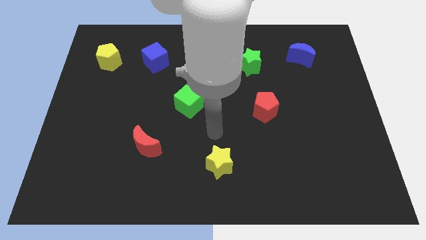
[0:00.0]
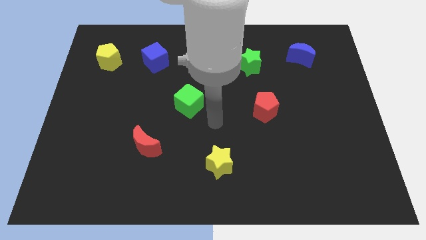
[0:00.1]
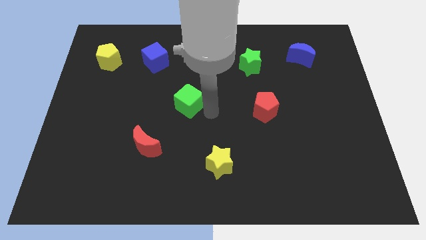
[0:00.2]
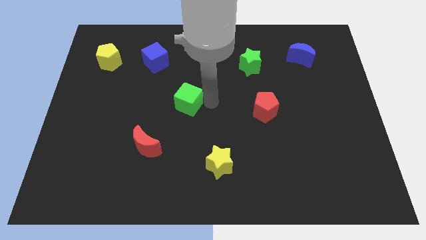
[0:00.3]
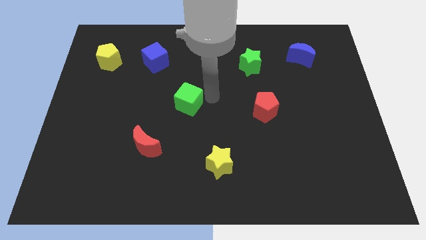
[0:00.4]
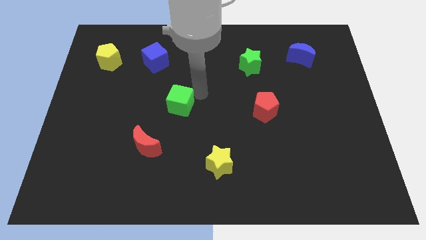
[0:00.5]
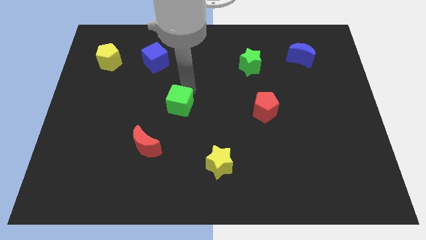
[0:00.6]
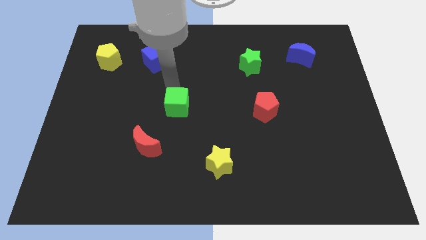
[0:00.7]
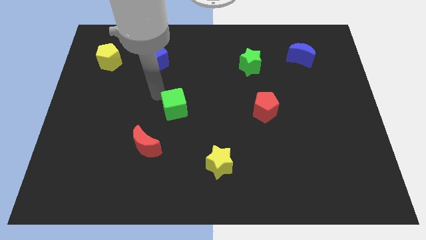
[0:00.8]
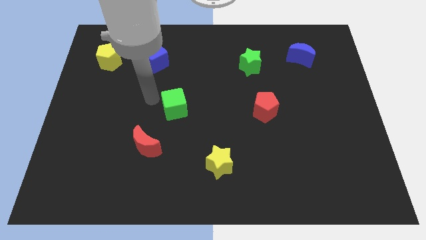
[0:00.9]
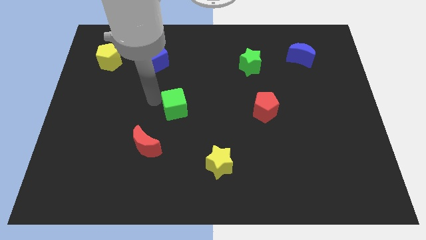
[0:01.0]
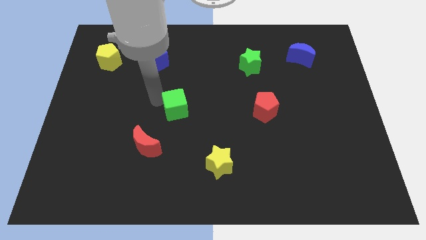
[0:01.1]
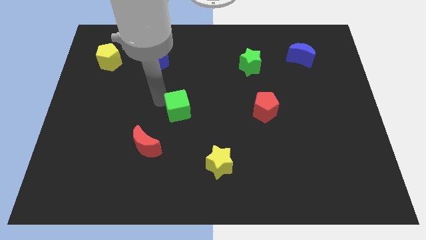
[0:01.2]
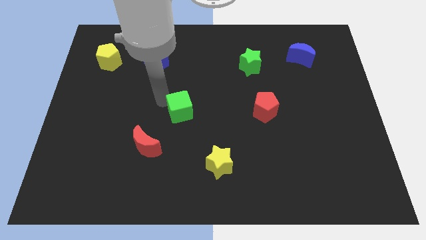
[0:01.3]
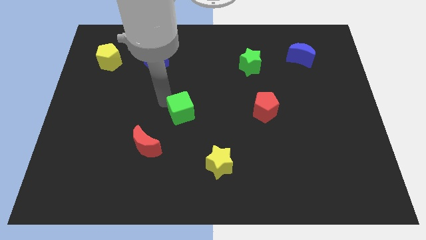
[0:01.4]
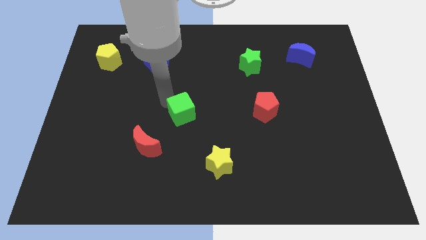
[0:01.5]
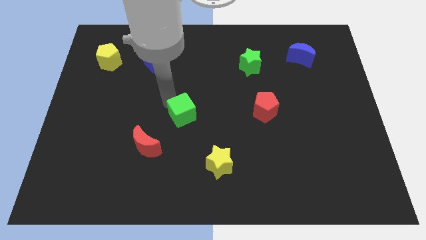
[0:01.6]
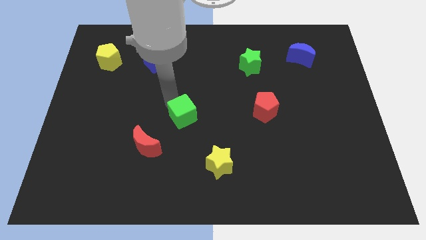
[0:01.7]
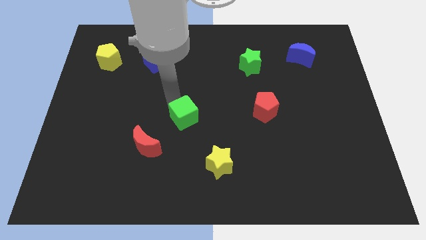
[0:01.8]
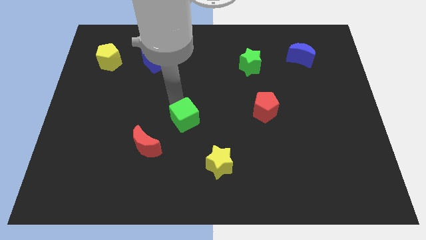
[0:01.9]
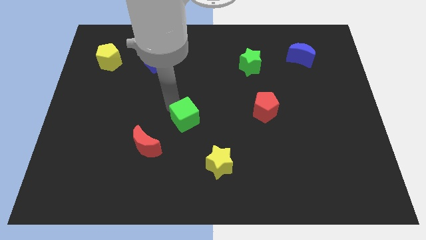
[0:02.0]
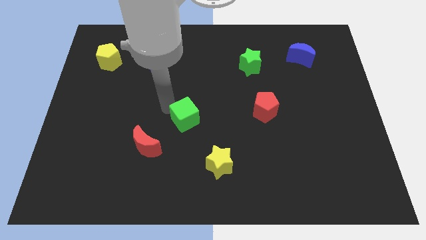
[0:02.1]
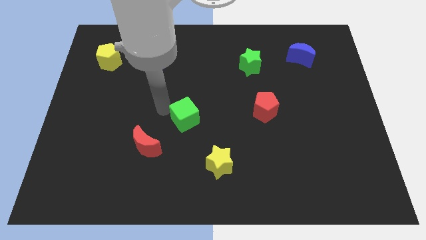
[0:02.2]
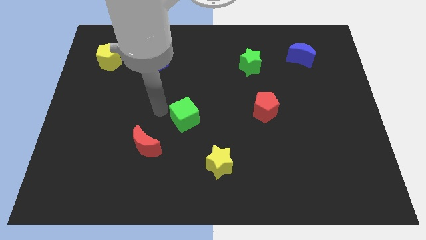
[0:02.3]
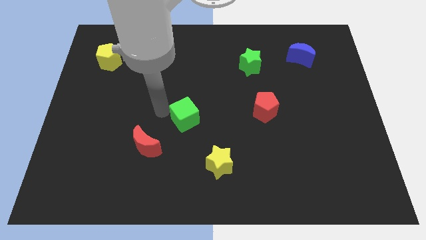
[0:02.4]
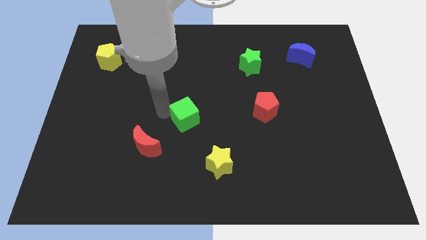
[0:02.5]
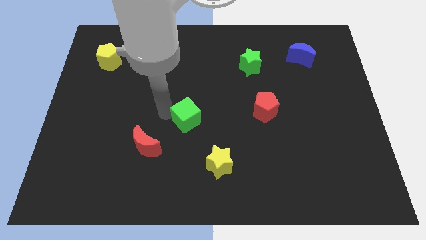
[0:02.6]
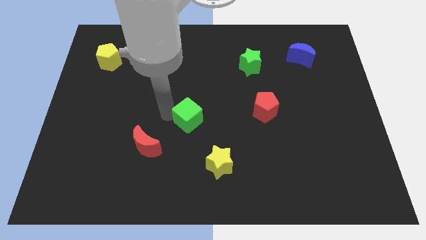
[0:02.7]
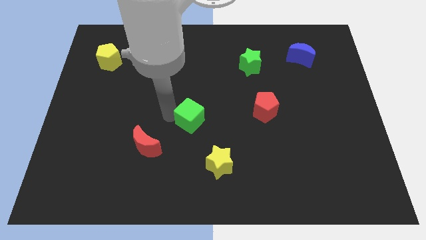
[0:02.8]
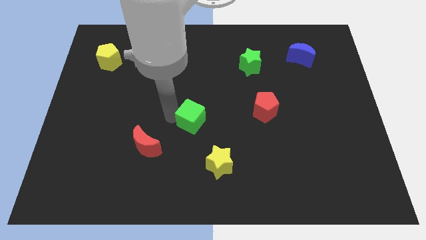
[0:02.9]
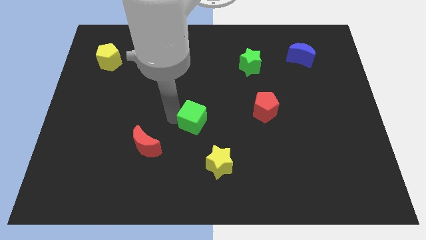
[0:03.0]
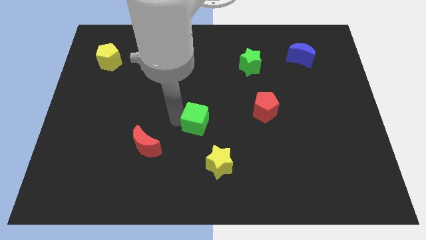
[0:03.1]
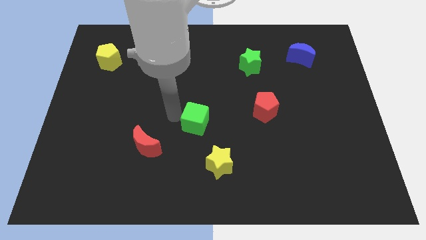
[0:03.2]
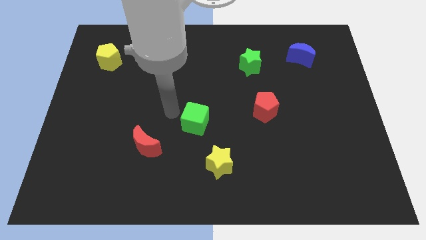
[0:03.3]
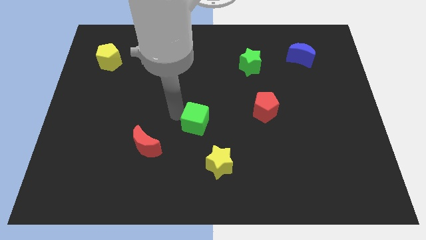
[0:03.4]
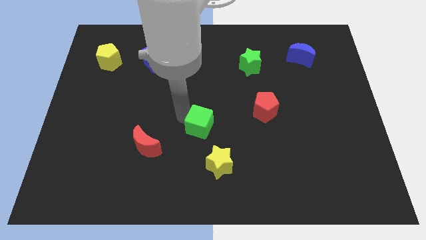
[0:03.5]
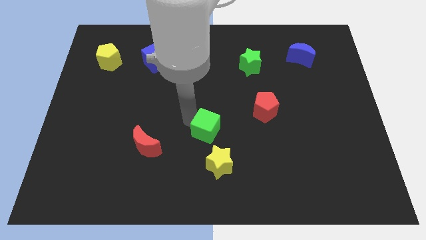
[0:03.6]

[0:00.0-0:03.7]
move the green cube diagonally down and right slightly

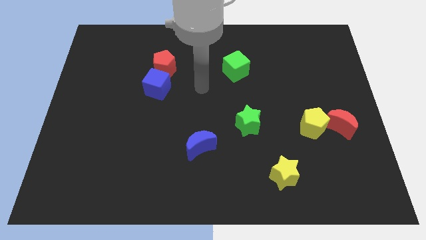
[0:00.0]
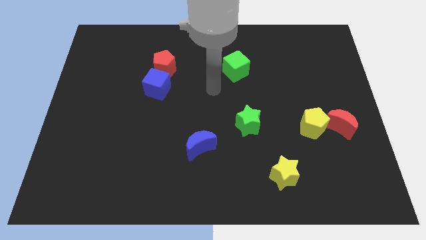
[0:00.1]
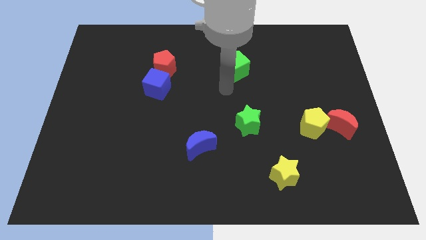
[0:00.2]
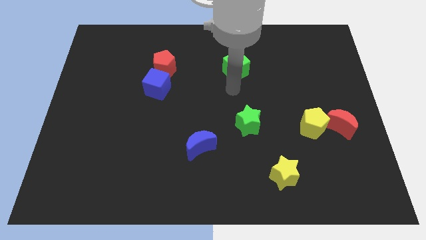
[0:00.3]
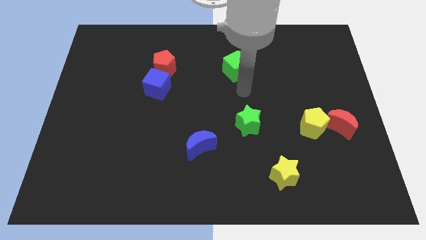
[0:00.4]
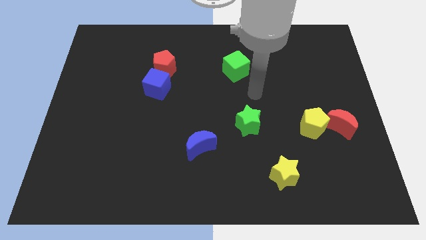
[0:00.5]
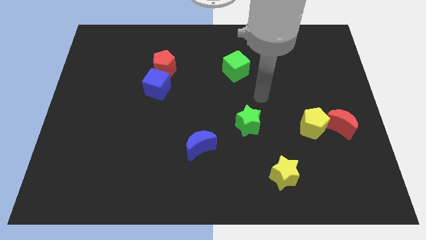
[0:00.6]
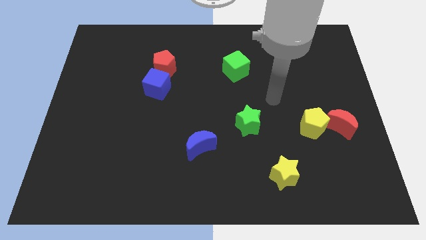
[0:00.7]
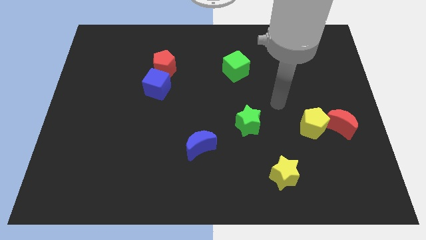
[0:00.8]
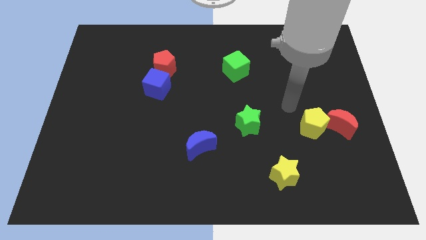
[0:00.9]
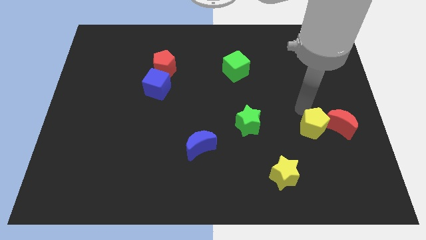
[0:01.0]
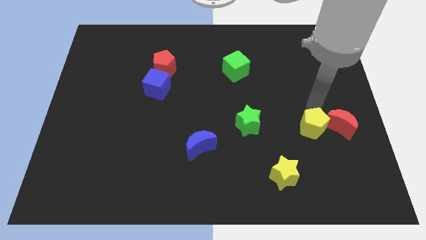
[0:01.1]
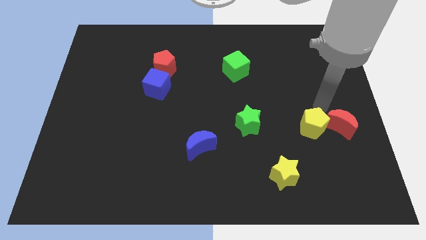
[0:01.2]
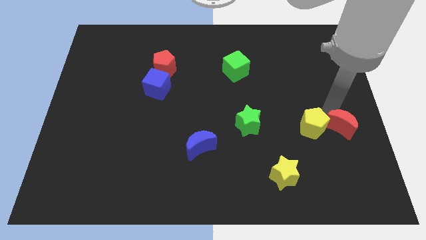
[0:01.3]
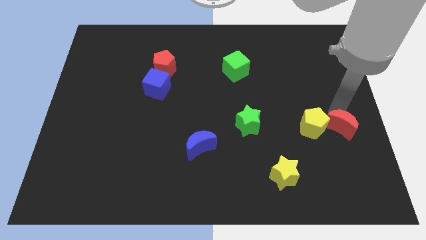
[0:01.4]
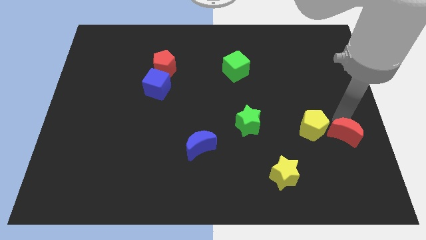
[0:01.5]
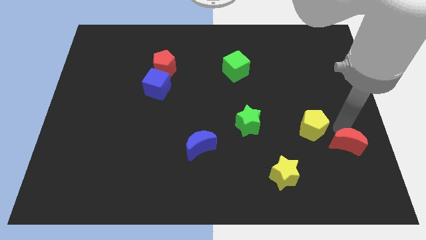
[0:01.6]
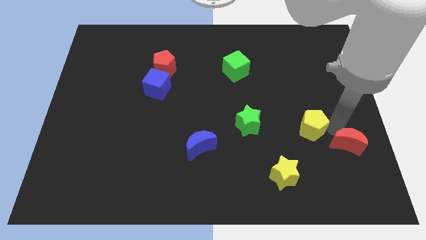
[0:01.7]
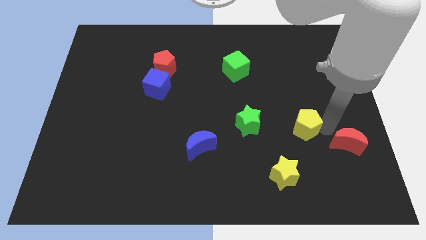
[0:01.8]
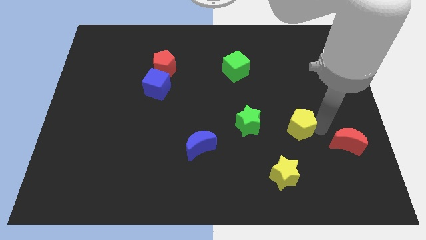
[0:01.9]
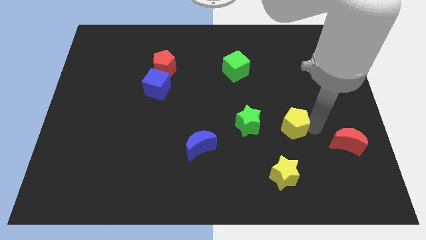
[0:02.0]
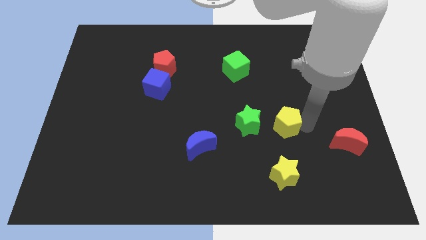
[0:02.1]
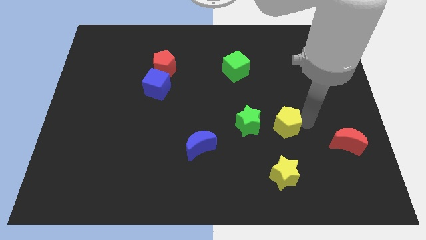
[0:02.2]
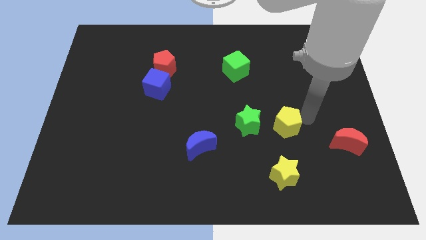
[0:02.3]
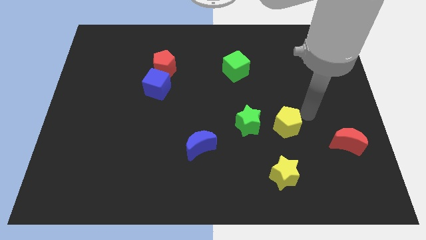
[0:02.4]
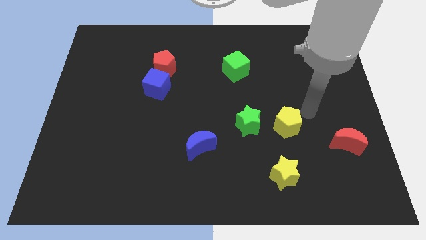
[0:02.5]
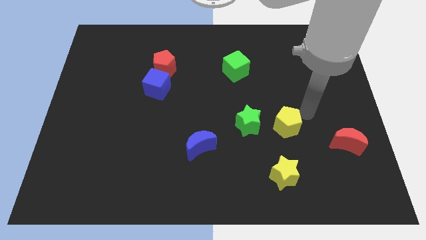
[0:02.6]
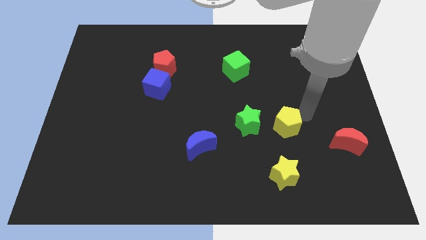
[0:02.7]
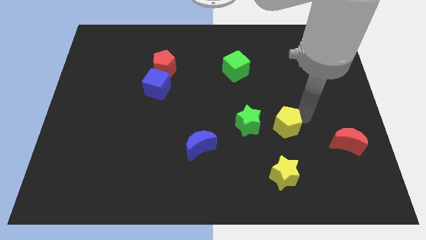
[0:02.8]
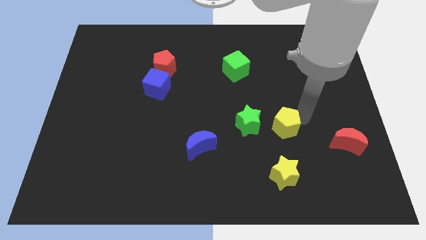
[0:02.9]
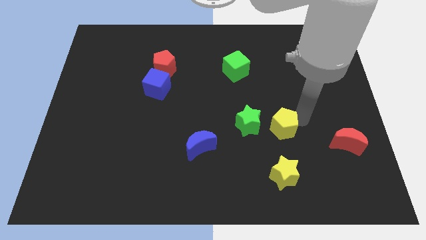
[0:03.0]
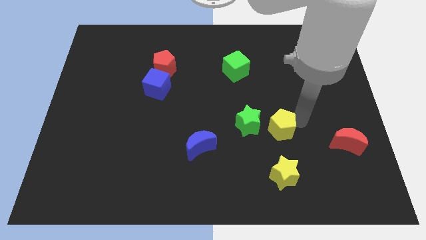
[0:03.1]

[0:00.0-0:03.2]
slightly move the yellow pentagon to the left

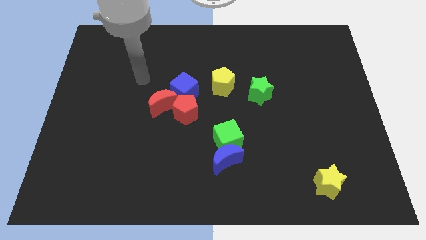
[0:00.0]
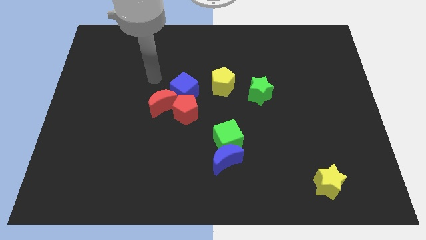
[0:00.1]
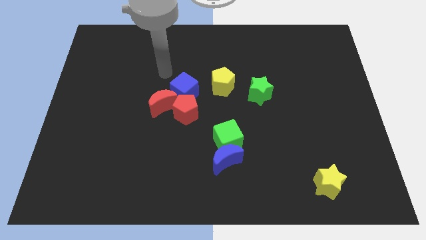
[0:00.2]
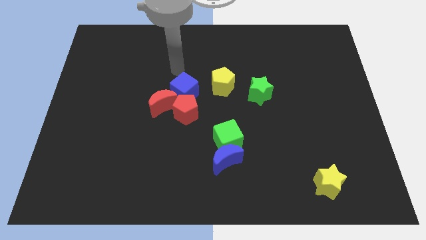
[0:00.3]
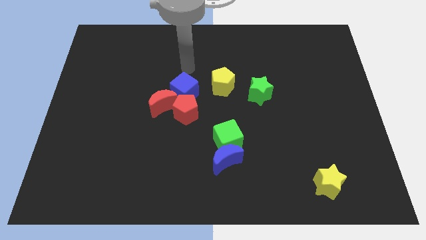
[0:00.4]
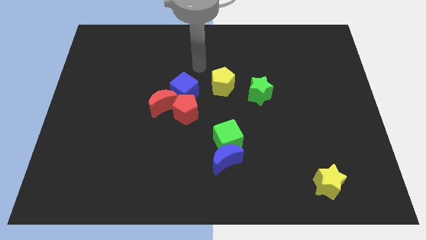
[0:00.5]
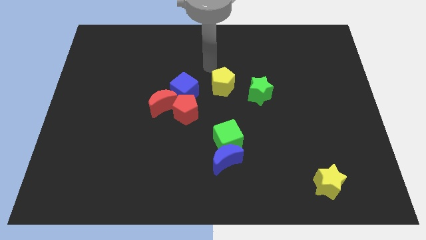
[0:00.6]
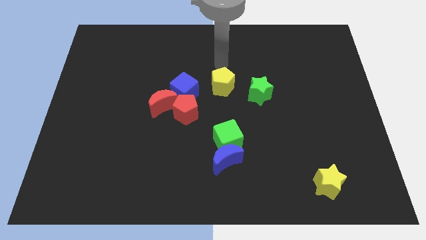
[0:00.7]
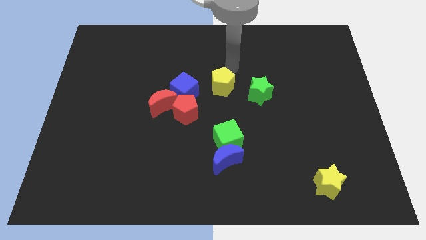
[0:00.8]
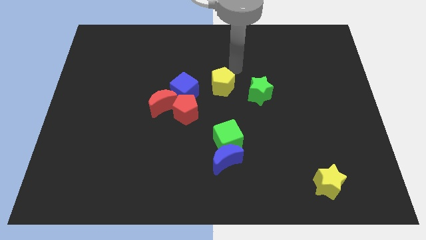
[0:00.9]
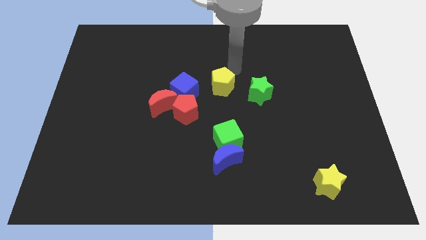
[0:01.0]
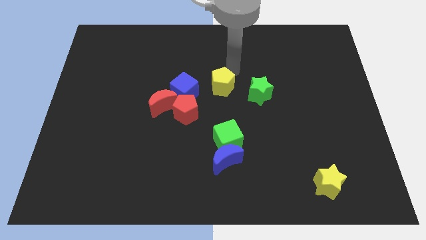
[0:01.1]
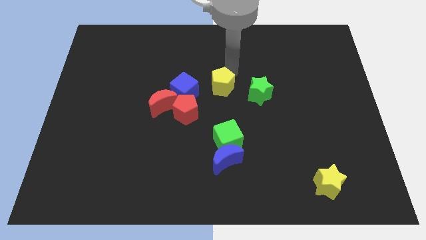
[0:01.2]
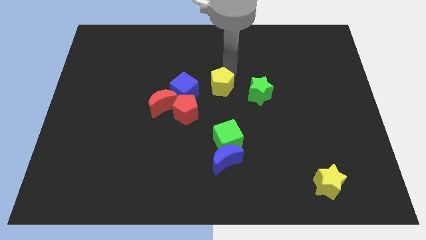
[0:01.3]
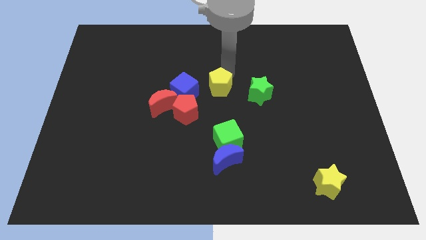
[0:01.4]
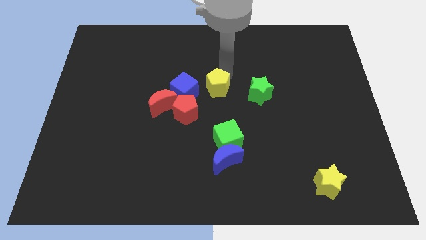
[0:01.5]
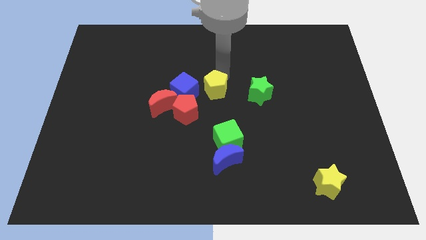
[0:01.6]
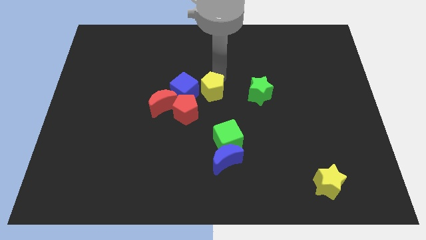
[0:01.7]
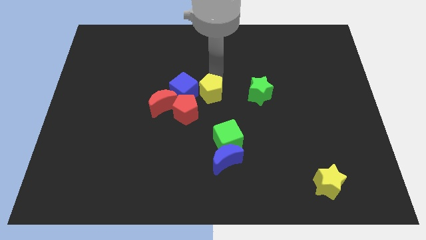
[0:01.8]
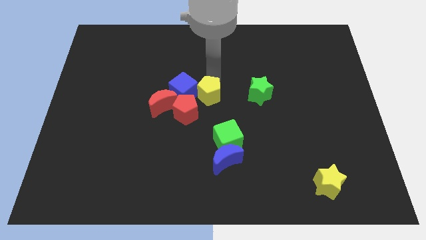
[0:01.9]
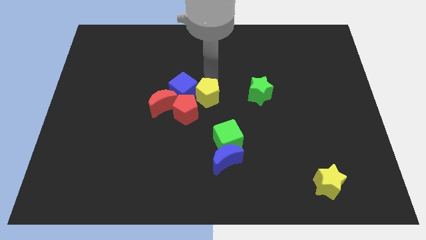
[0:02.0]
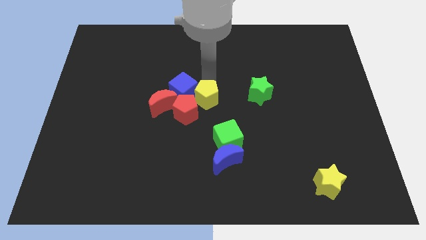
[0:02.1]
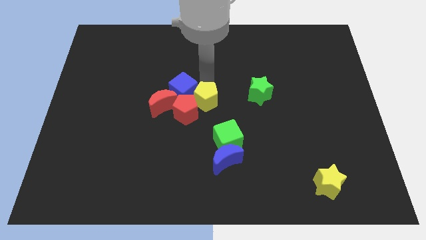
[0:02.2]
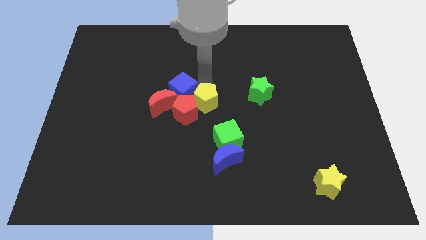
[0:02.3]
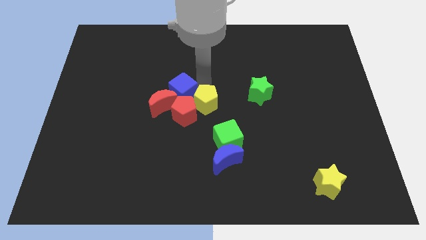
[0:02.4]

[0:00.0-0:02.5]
move the yellow pentagon slightly down and then to the left
